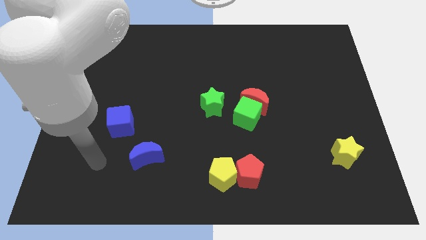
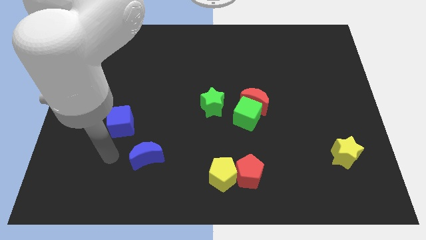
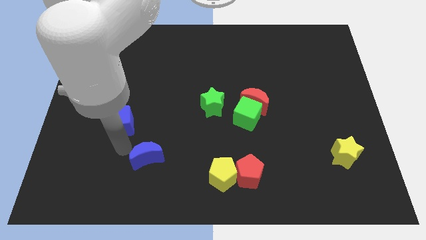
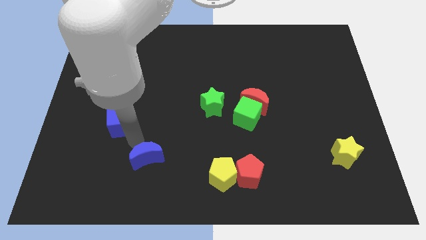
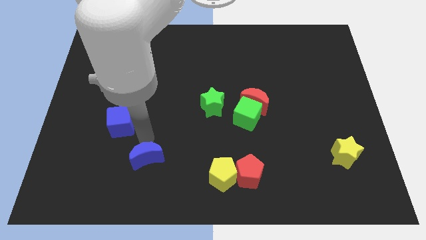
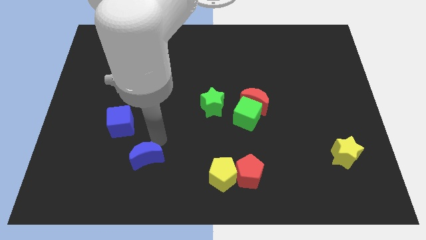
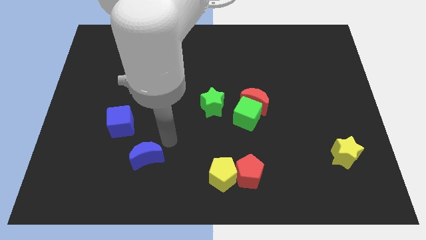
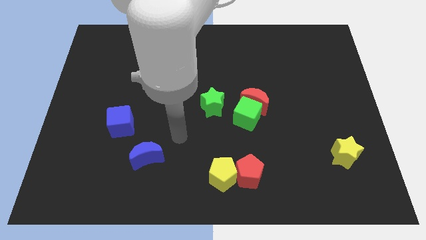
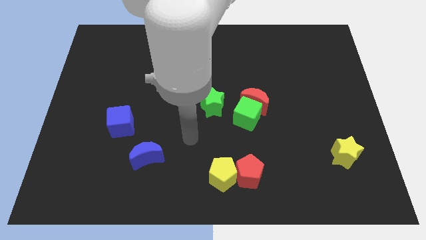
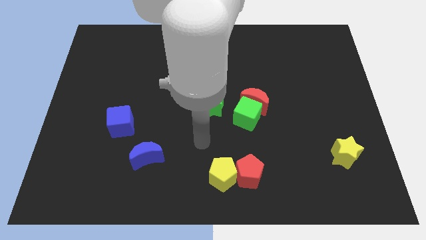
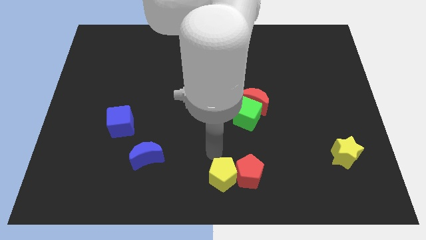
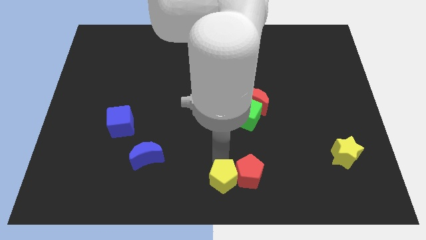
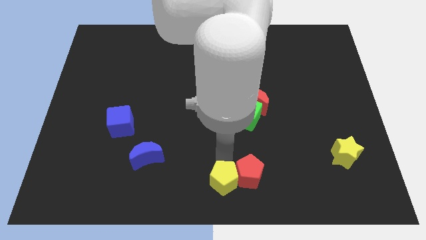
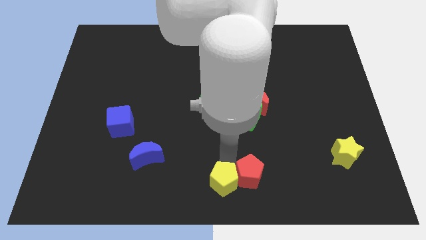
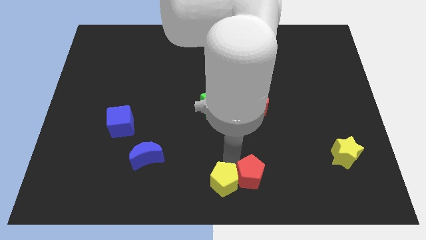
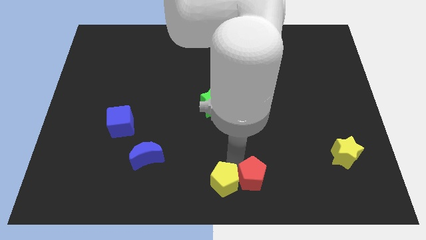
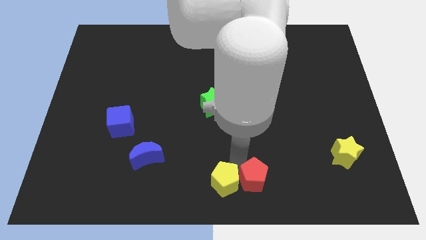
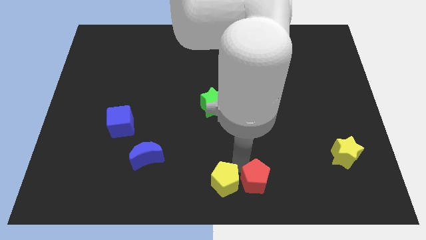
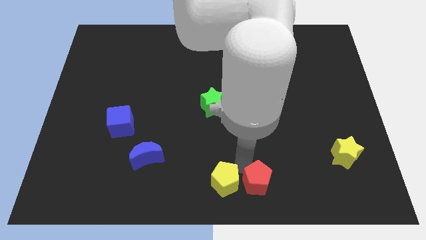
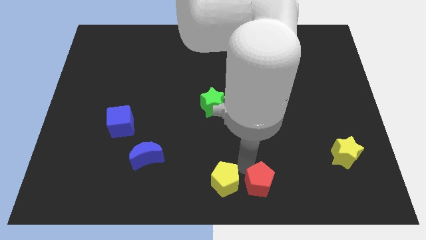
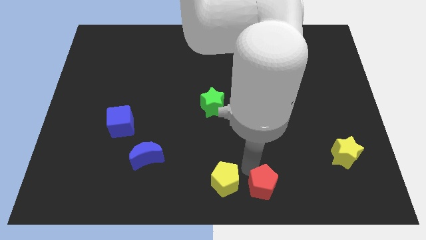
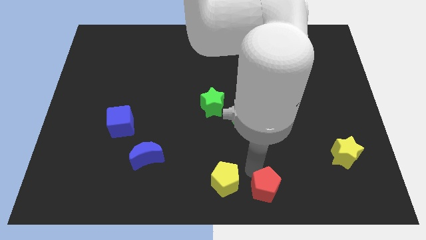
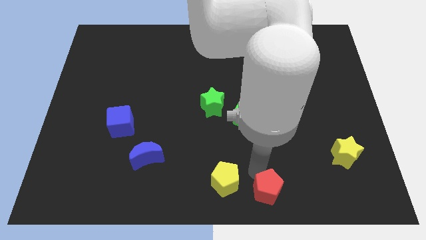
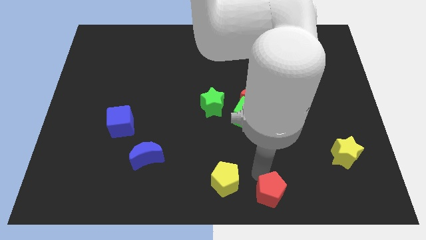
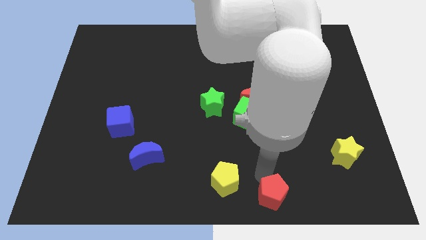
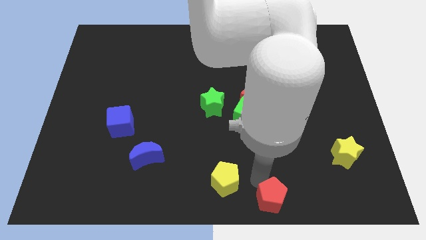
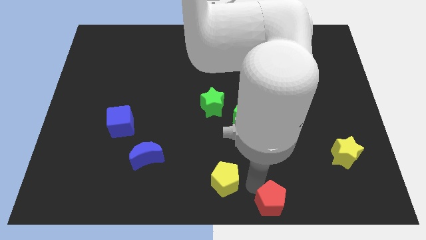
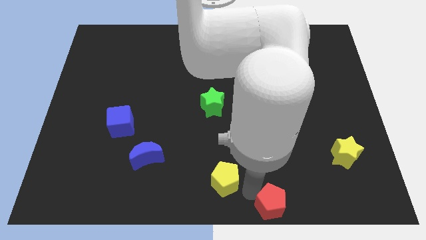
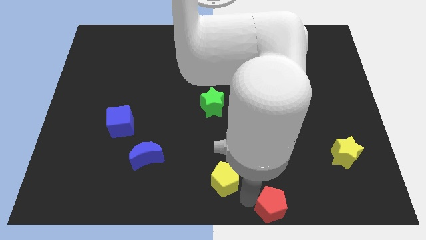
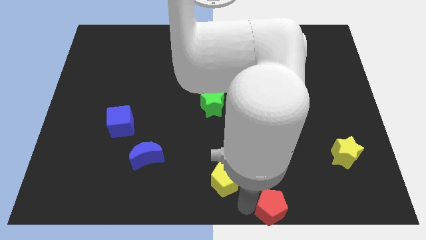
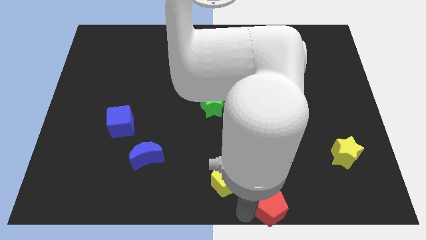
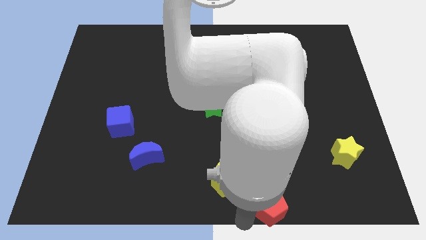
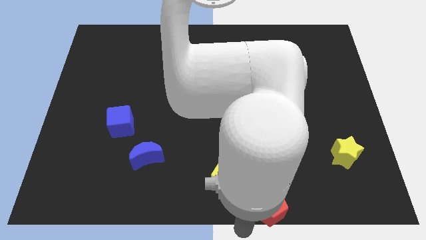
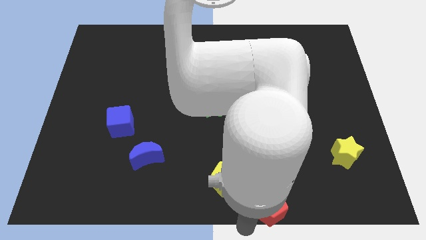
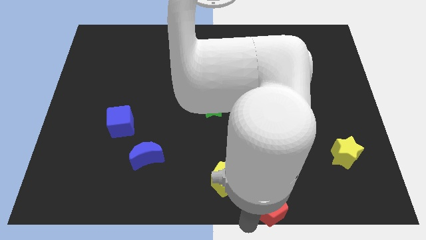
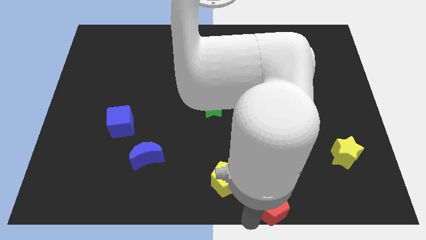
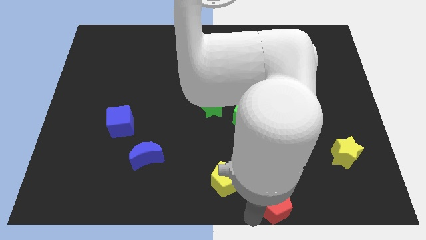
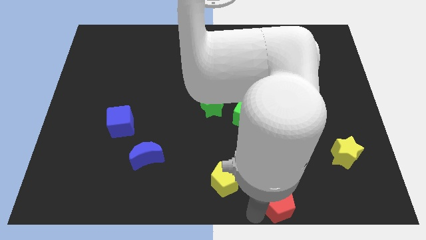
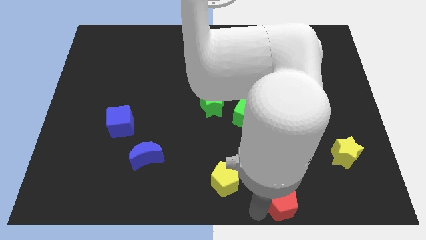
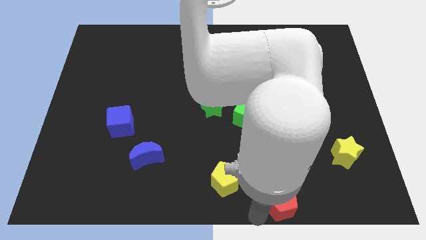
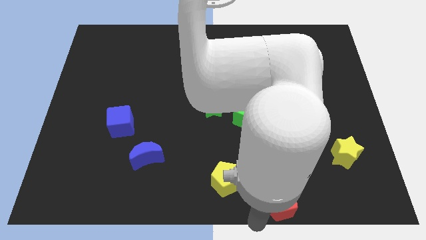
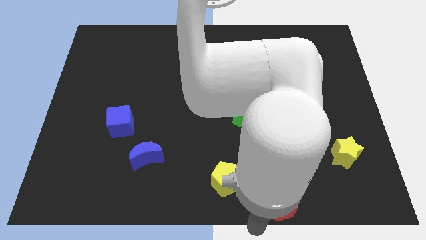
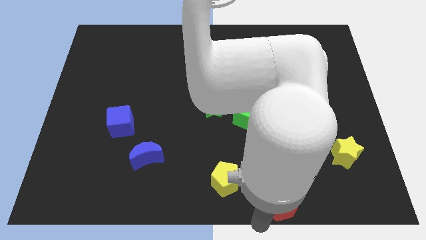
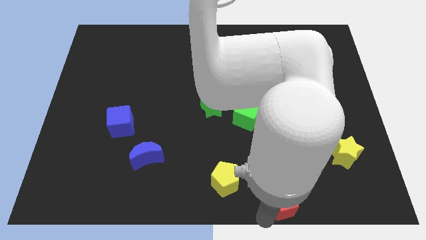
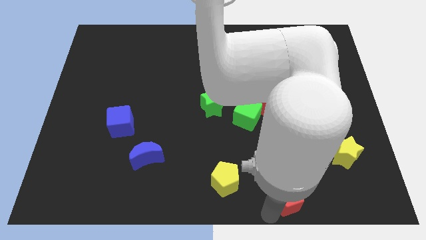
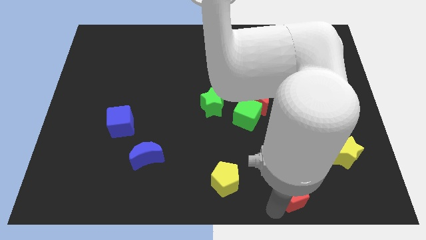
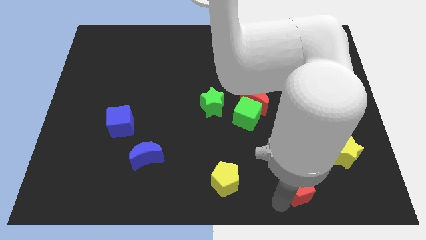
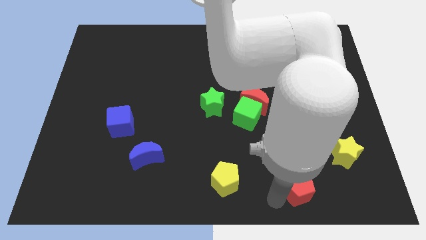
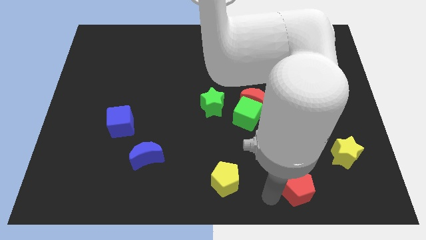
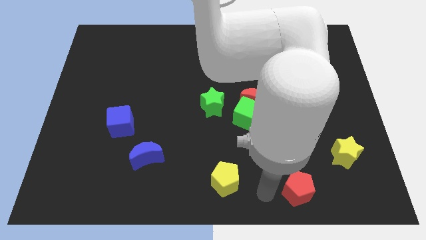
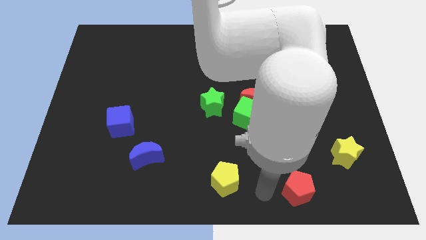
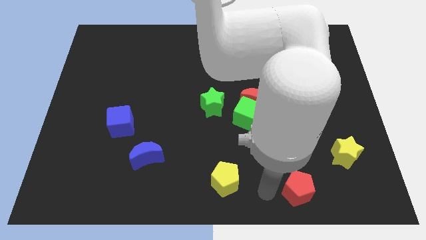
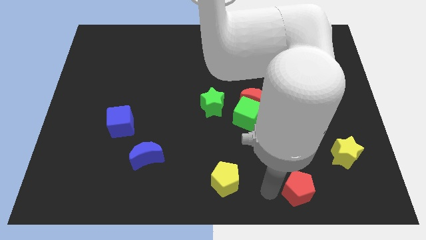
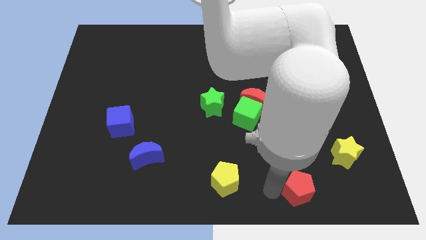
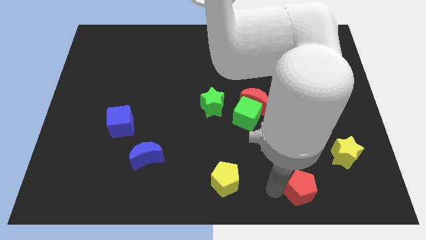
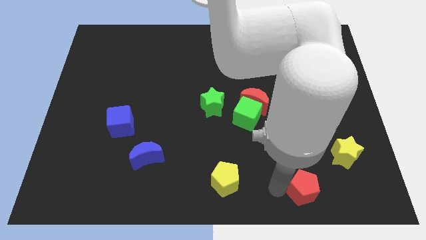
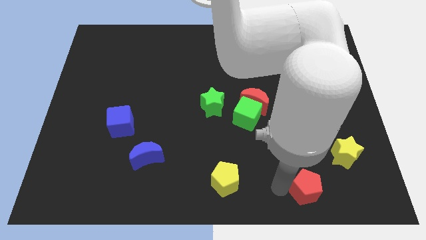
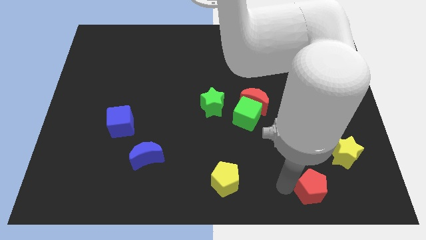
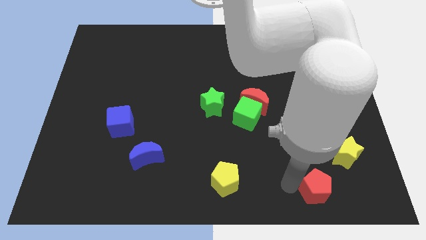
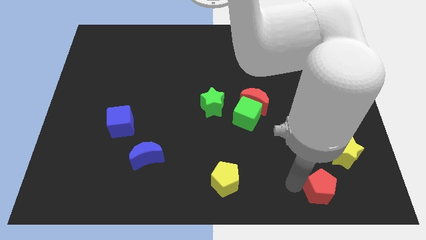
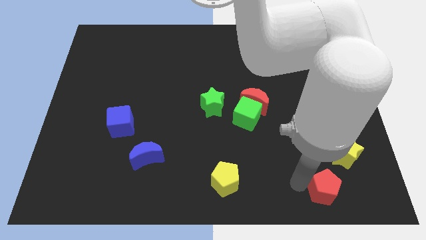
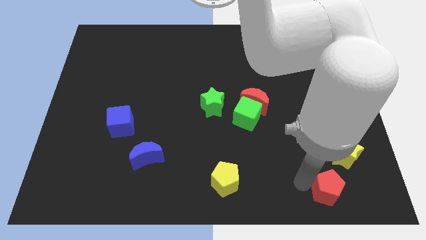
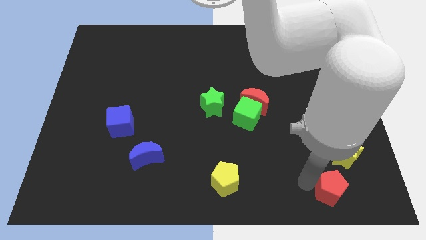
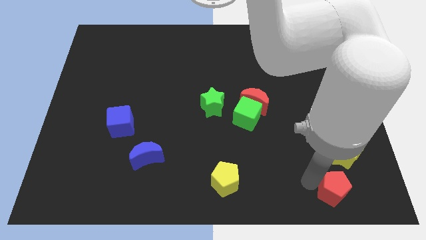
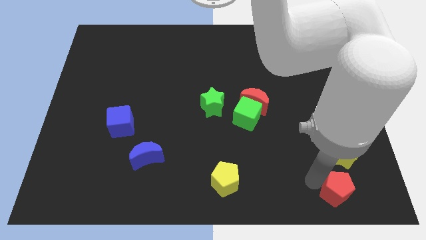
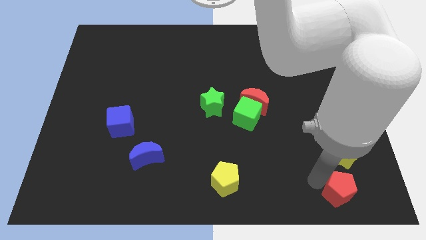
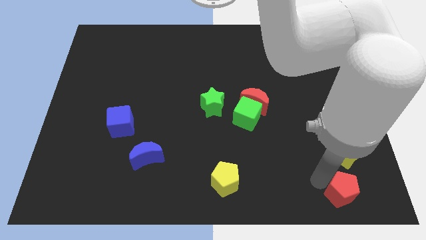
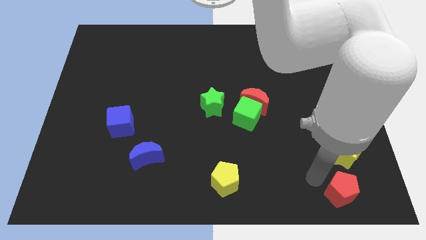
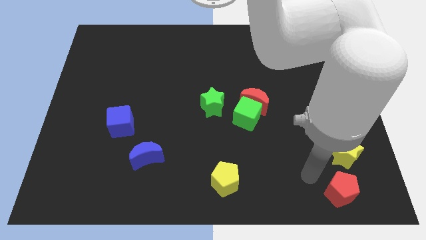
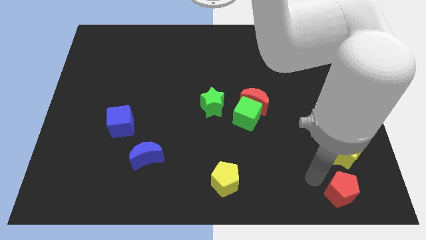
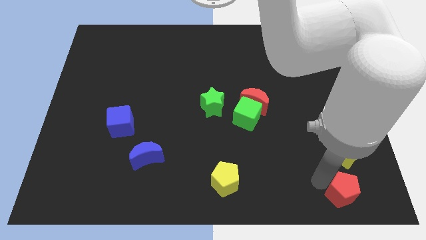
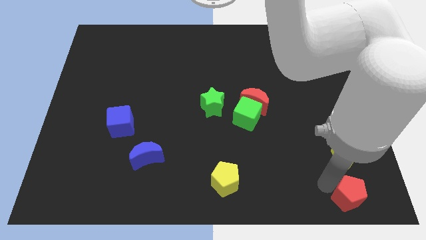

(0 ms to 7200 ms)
move the red pentagon to the lower right corner

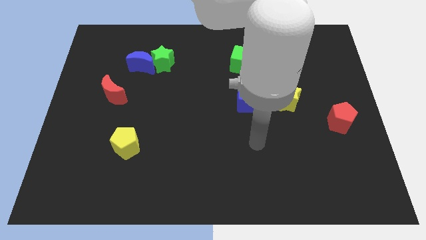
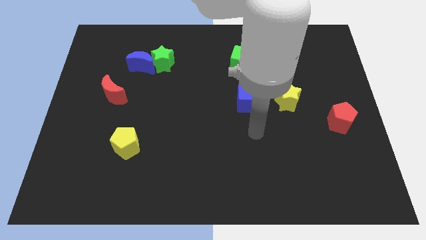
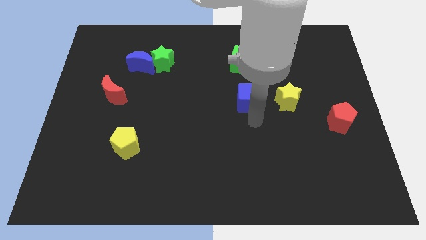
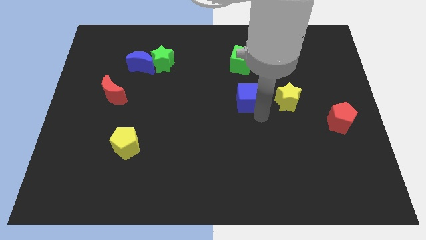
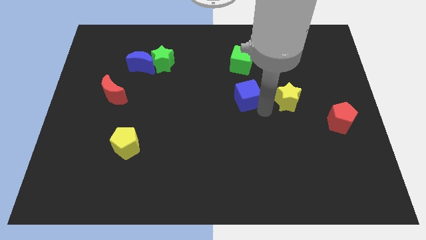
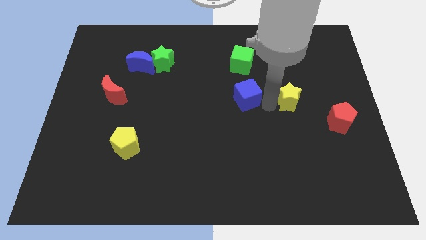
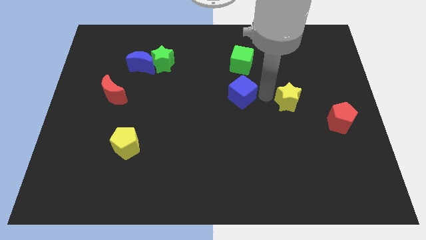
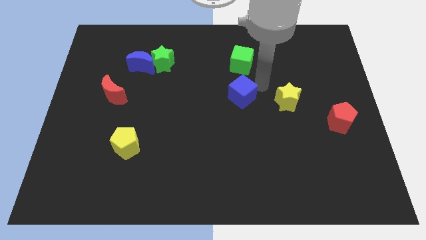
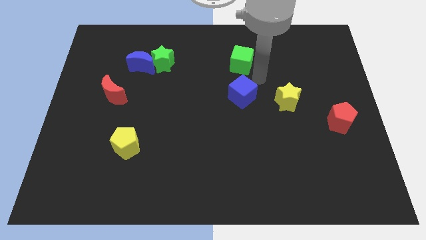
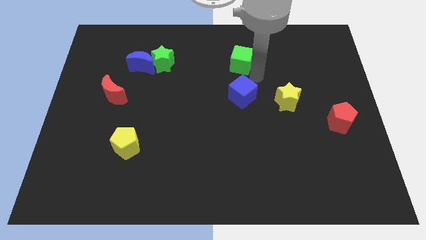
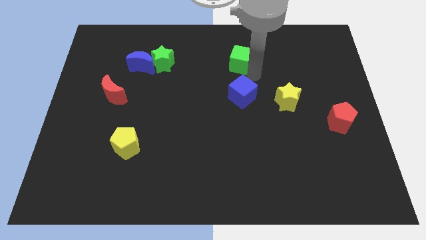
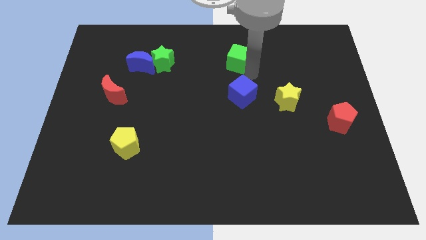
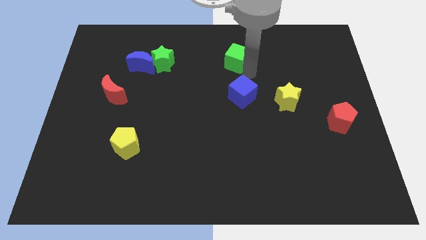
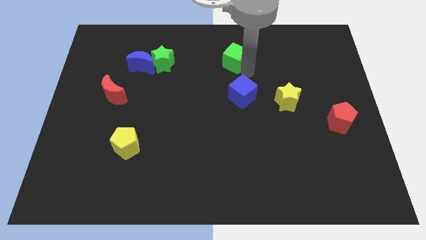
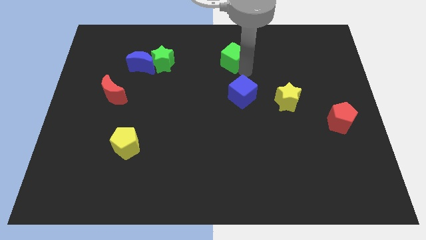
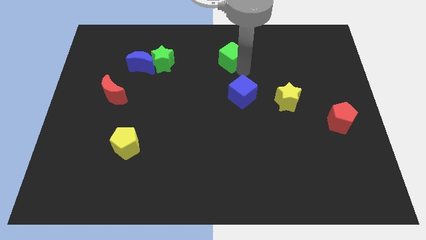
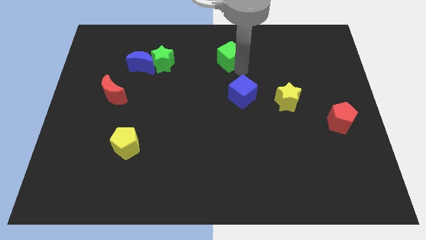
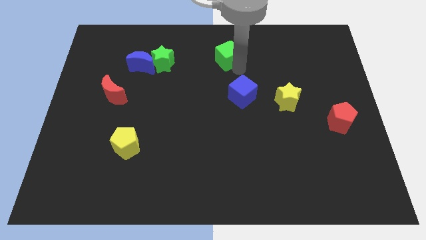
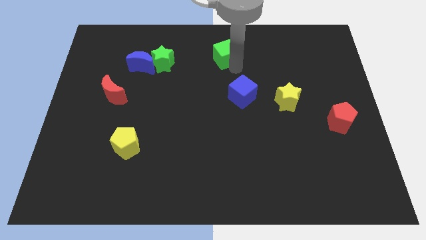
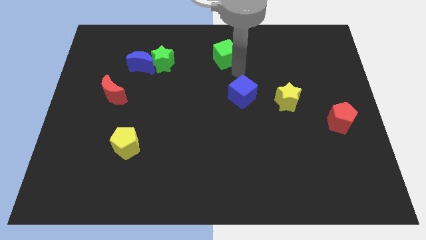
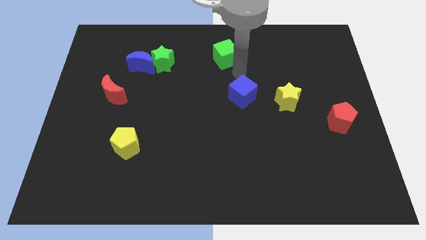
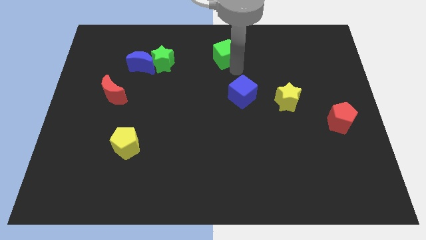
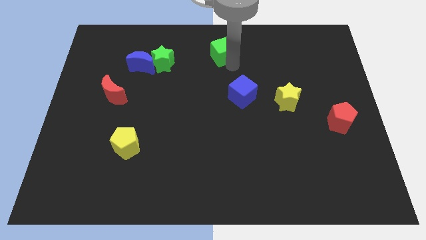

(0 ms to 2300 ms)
push the green cube to the top side
